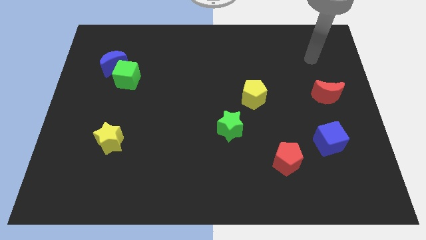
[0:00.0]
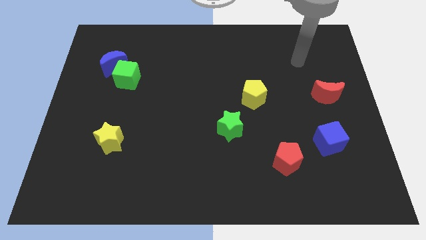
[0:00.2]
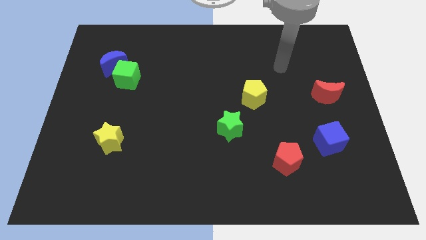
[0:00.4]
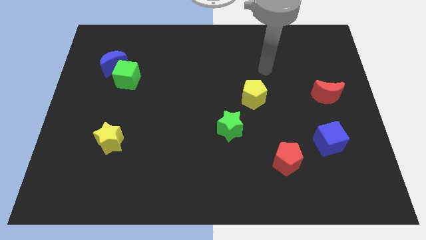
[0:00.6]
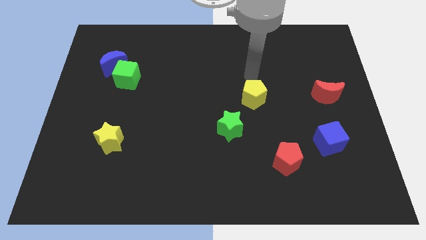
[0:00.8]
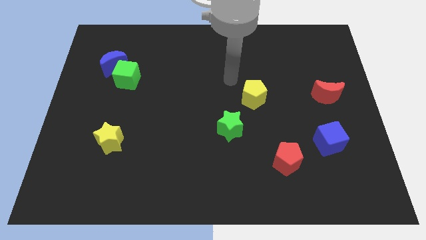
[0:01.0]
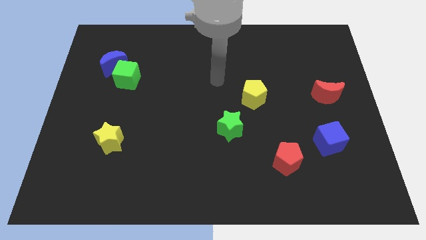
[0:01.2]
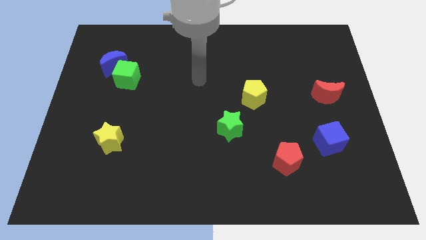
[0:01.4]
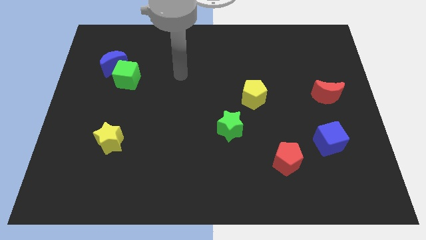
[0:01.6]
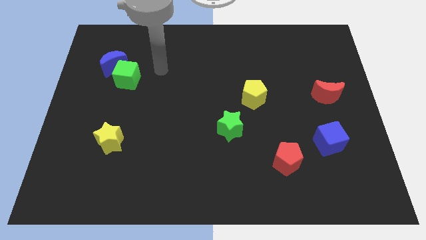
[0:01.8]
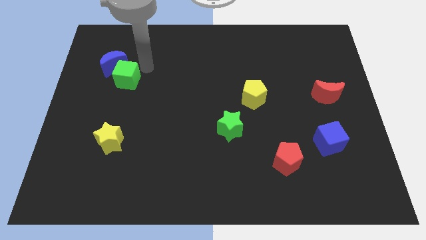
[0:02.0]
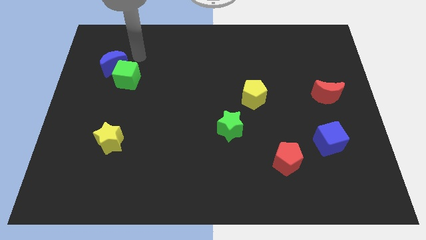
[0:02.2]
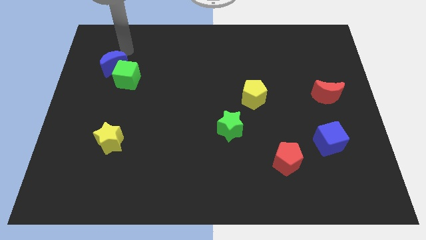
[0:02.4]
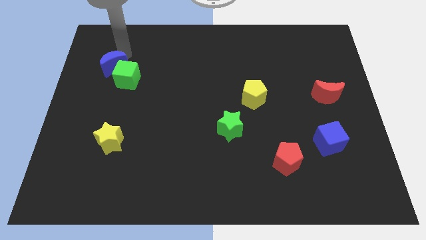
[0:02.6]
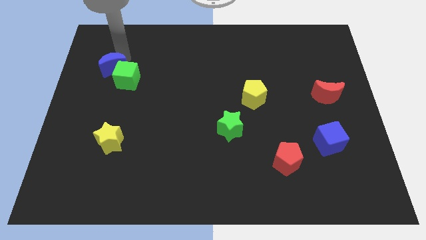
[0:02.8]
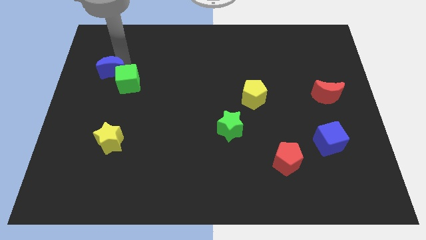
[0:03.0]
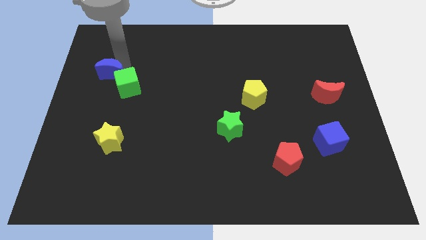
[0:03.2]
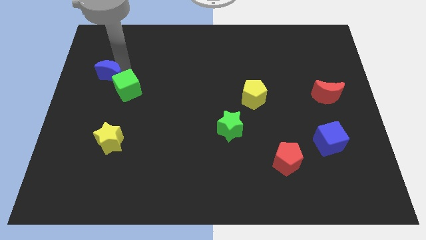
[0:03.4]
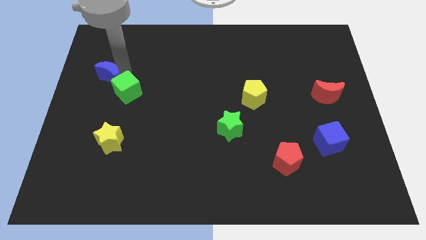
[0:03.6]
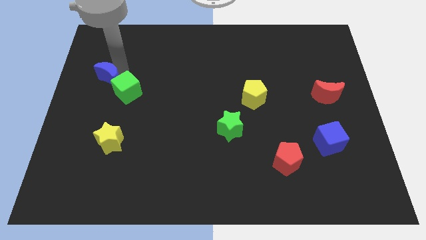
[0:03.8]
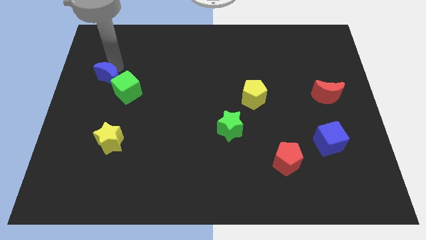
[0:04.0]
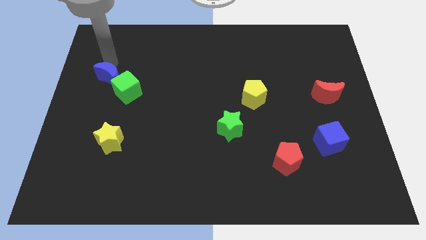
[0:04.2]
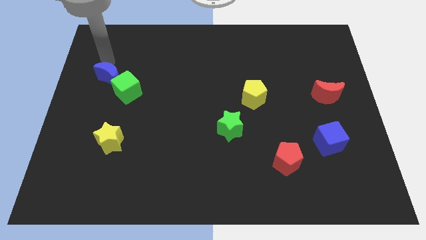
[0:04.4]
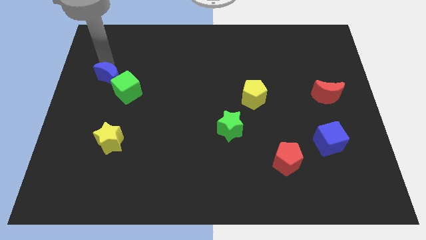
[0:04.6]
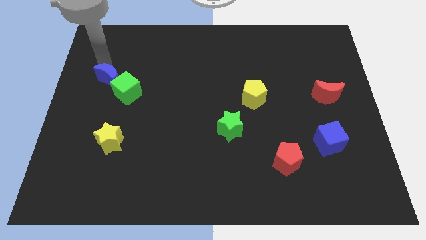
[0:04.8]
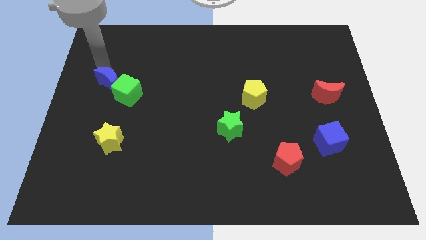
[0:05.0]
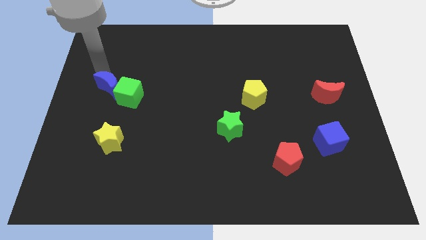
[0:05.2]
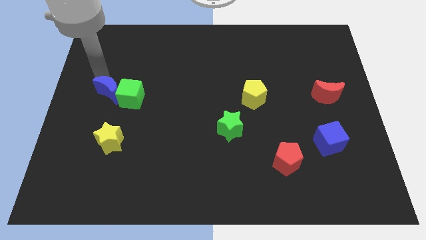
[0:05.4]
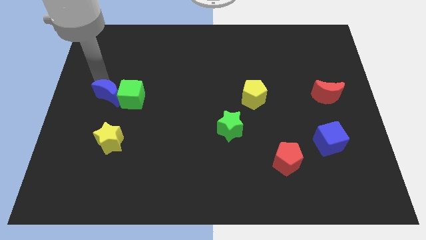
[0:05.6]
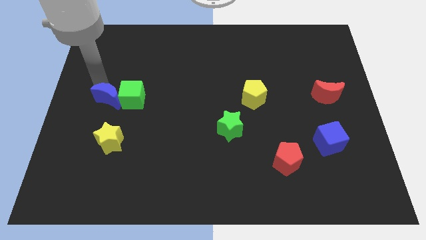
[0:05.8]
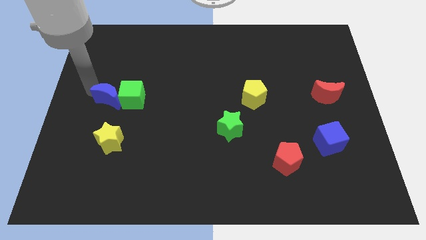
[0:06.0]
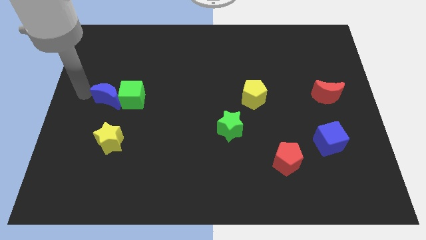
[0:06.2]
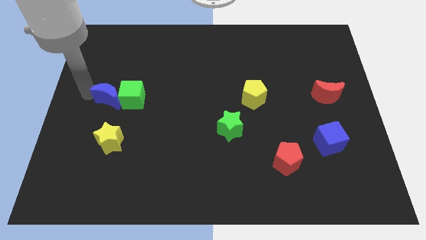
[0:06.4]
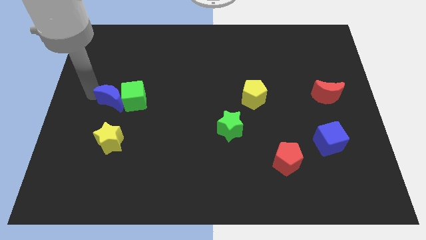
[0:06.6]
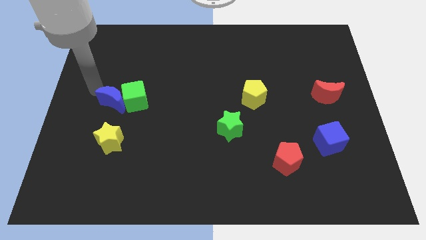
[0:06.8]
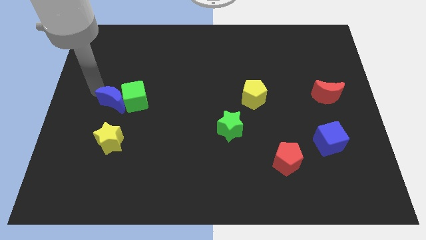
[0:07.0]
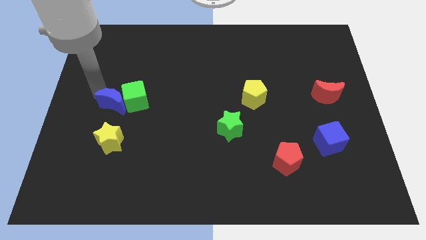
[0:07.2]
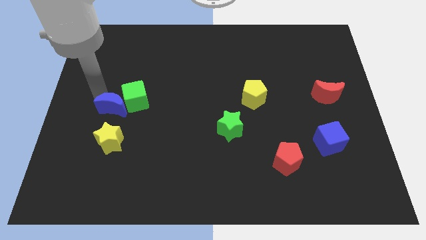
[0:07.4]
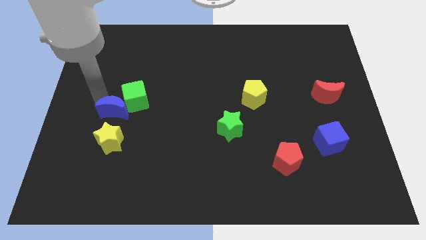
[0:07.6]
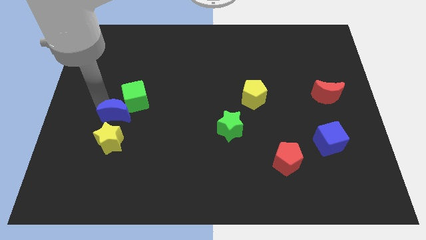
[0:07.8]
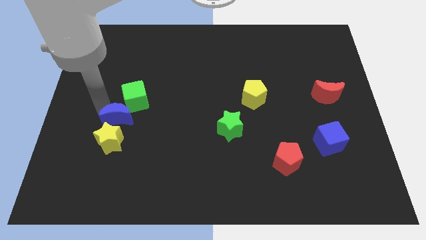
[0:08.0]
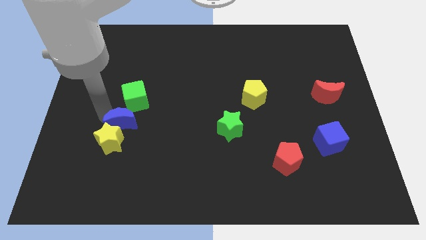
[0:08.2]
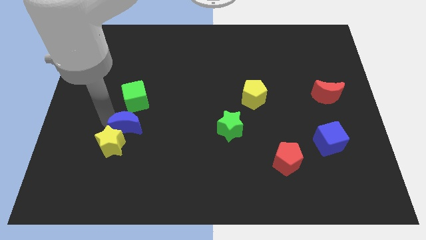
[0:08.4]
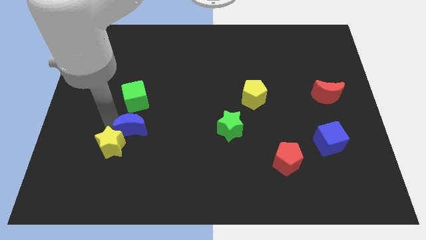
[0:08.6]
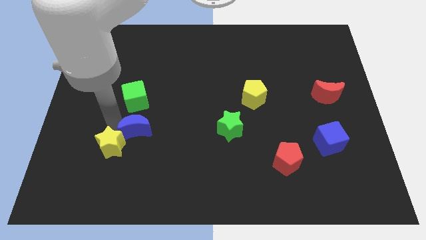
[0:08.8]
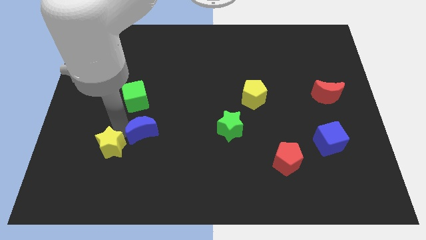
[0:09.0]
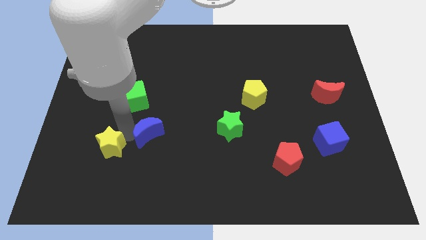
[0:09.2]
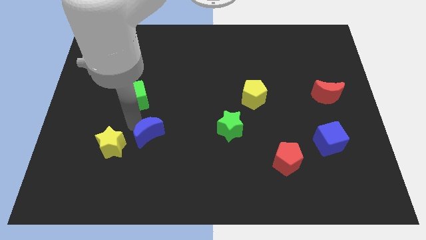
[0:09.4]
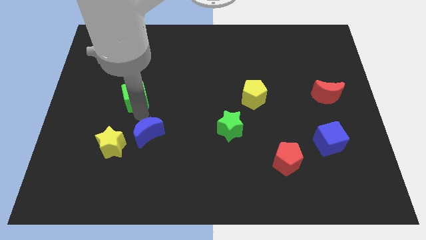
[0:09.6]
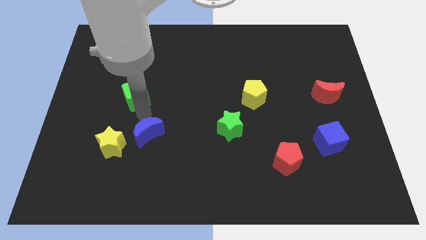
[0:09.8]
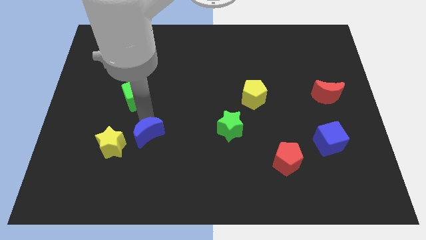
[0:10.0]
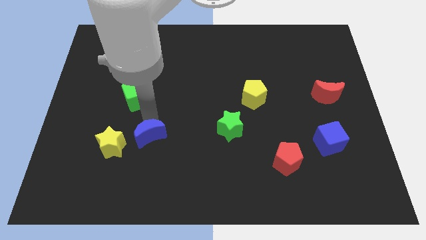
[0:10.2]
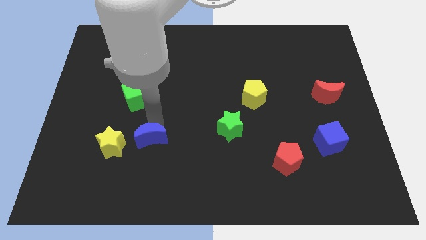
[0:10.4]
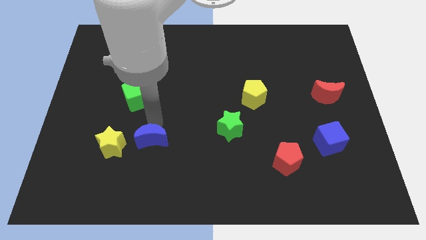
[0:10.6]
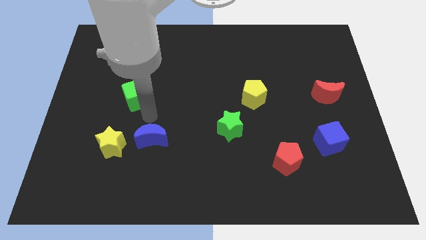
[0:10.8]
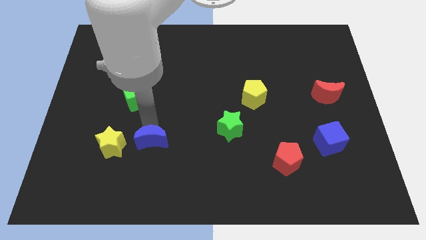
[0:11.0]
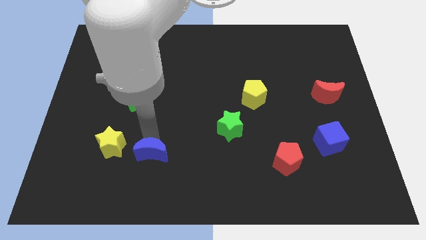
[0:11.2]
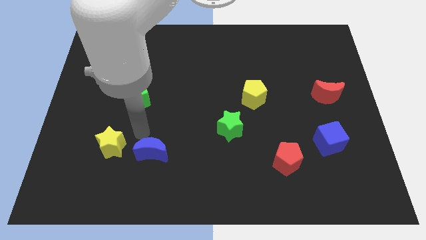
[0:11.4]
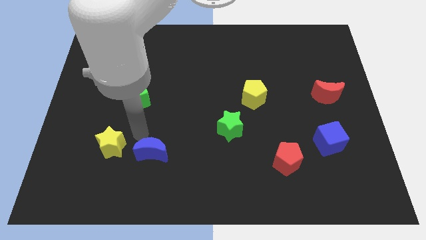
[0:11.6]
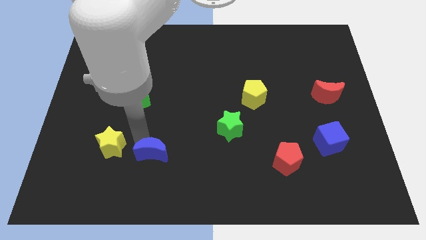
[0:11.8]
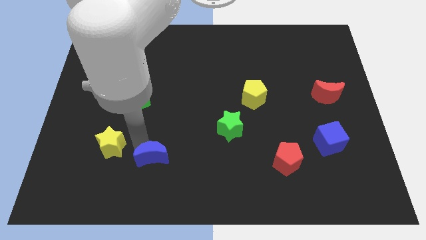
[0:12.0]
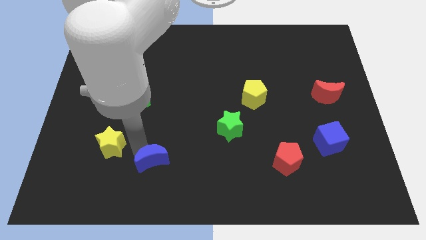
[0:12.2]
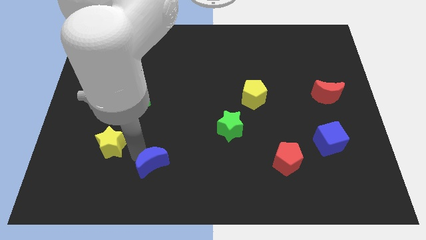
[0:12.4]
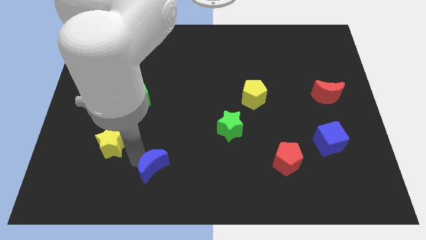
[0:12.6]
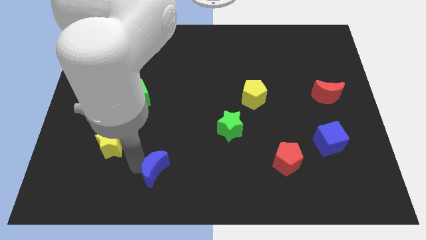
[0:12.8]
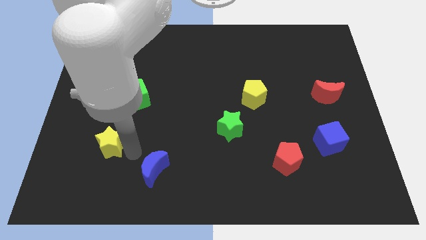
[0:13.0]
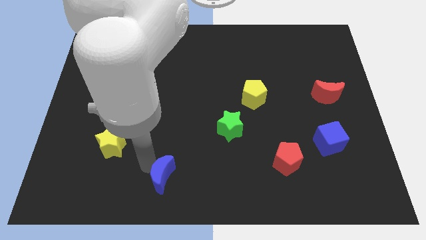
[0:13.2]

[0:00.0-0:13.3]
push the blue moon to the bottom
